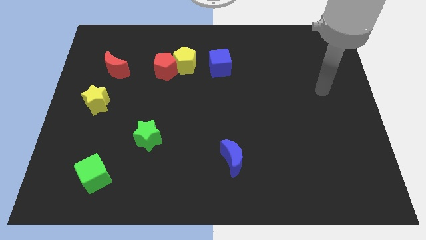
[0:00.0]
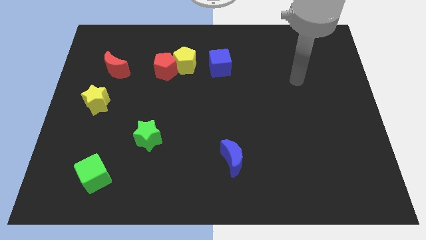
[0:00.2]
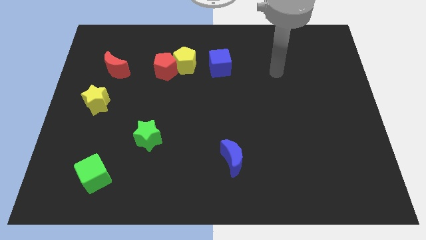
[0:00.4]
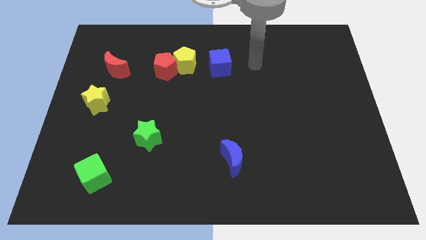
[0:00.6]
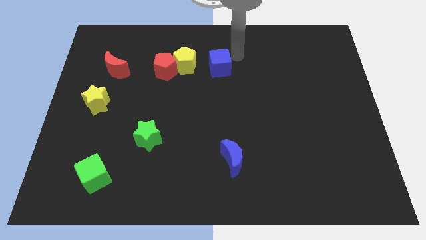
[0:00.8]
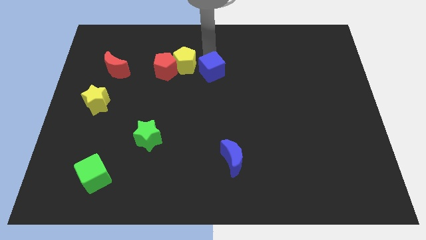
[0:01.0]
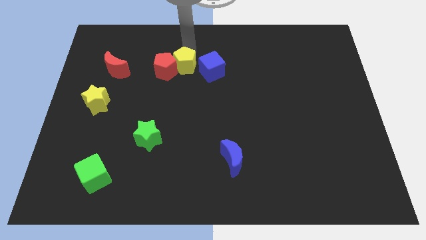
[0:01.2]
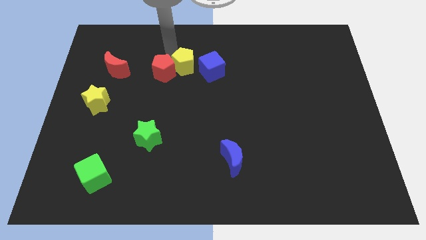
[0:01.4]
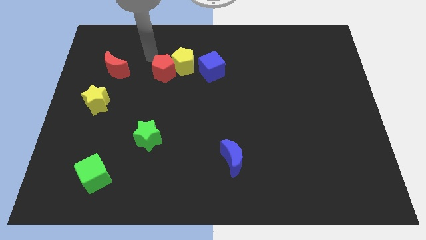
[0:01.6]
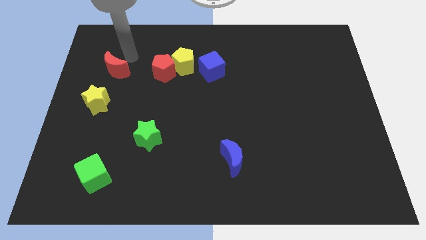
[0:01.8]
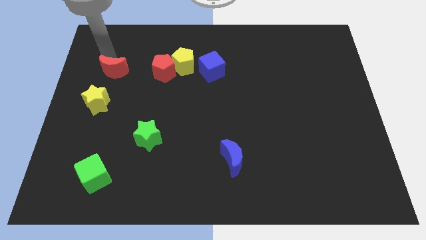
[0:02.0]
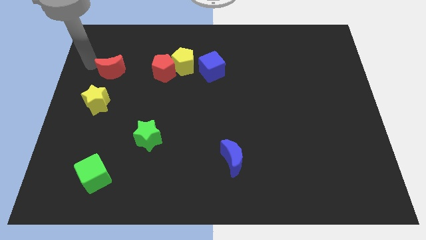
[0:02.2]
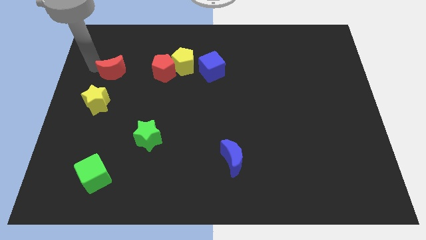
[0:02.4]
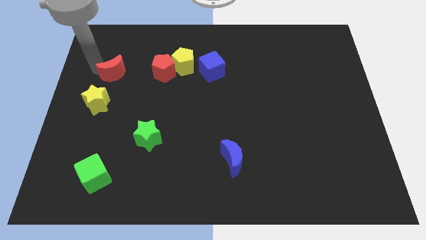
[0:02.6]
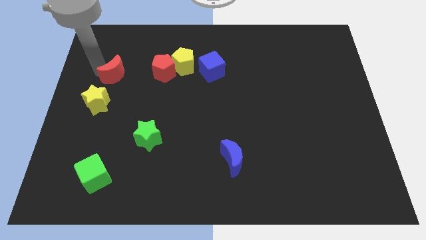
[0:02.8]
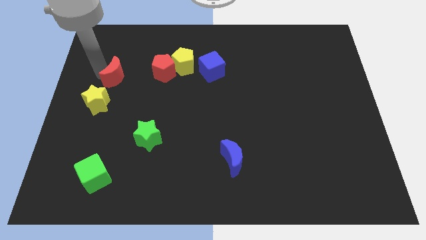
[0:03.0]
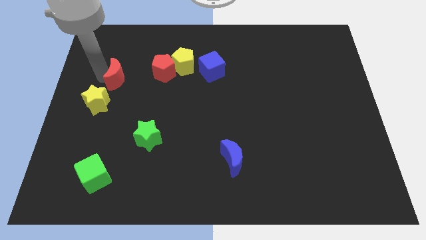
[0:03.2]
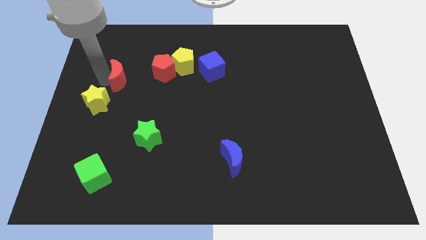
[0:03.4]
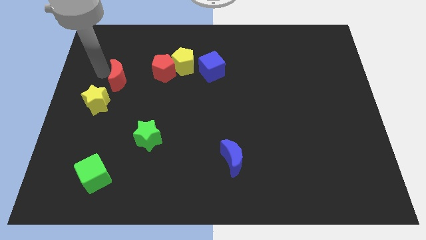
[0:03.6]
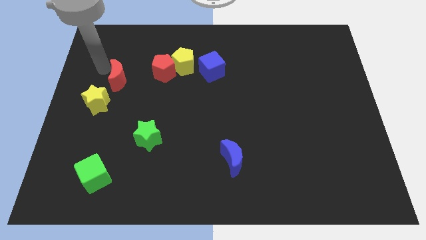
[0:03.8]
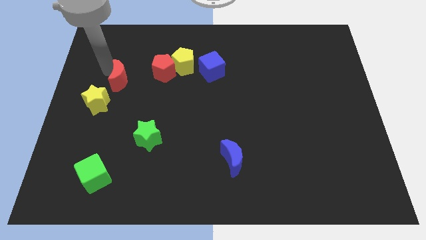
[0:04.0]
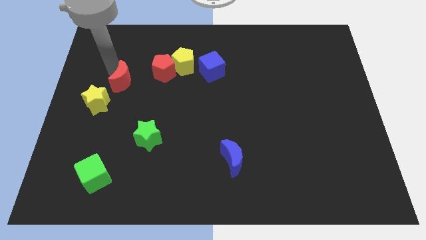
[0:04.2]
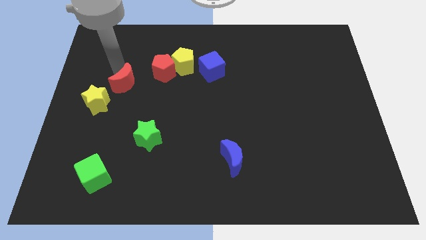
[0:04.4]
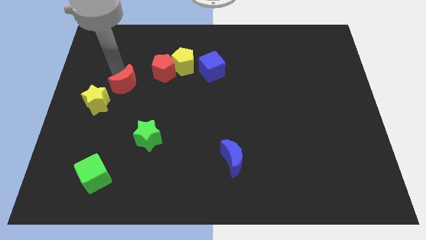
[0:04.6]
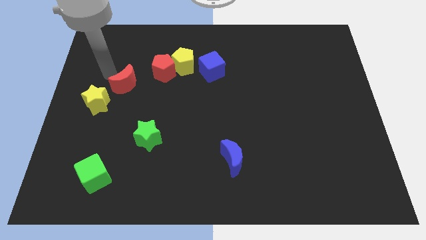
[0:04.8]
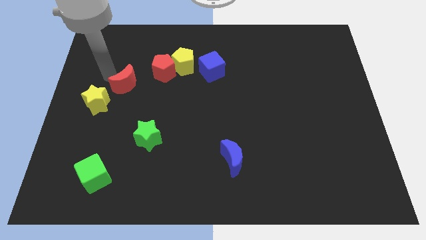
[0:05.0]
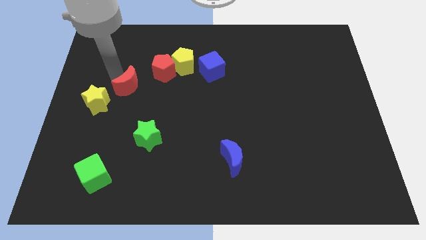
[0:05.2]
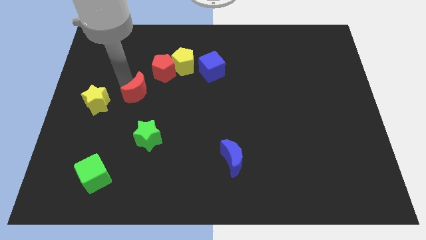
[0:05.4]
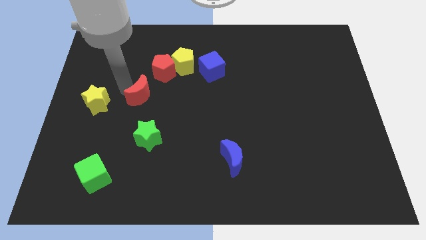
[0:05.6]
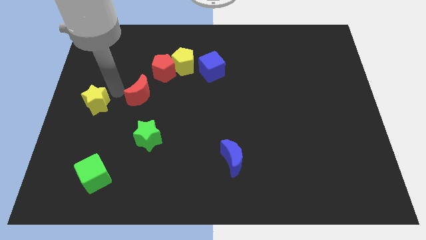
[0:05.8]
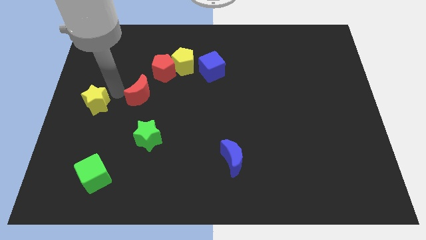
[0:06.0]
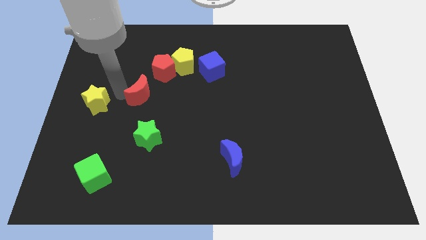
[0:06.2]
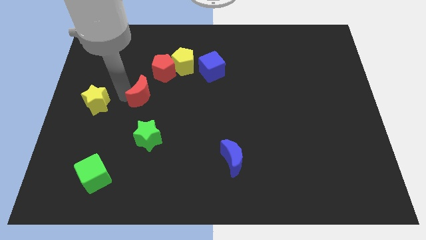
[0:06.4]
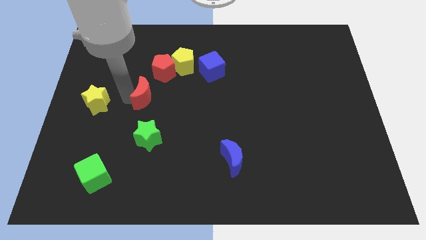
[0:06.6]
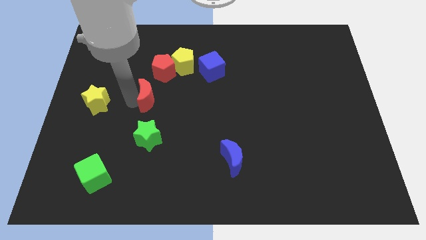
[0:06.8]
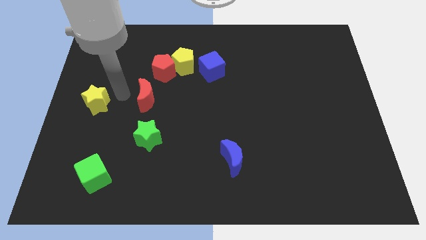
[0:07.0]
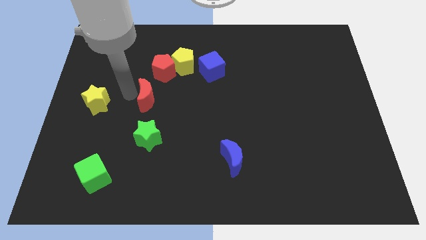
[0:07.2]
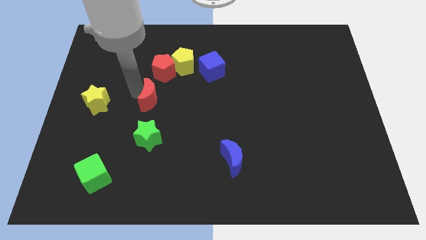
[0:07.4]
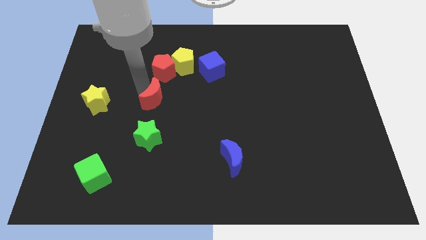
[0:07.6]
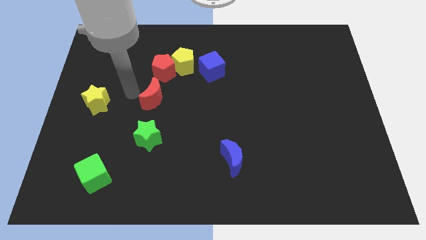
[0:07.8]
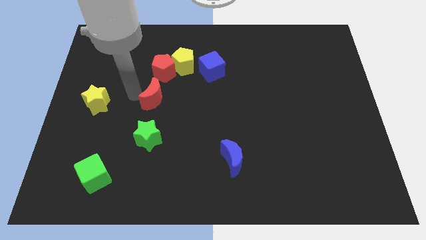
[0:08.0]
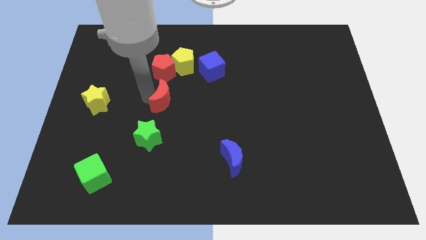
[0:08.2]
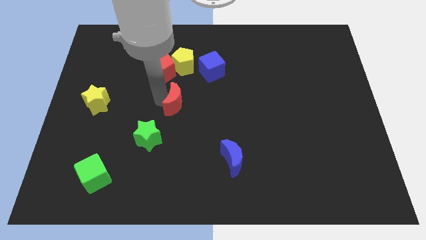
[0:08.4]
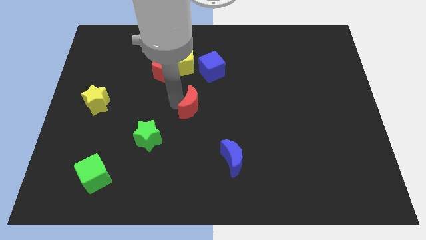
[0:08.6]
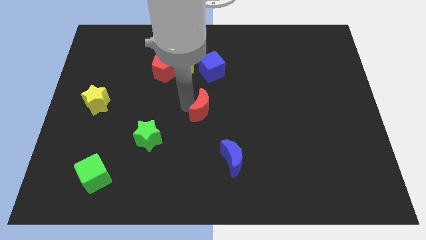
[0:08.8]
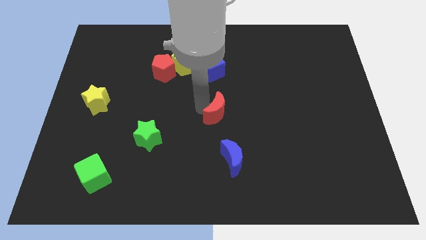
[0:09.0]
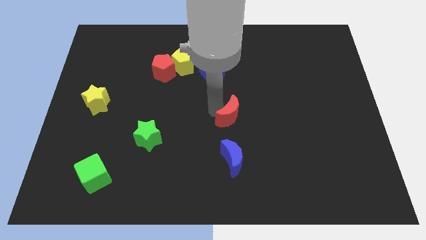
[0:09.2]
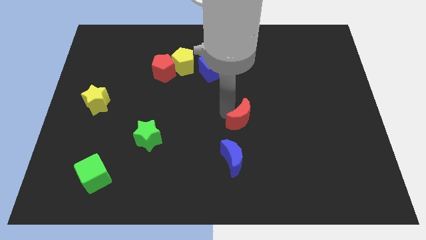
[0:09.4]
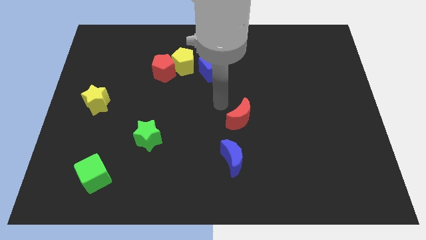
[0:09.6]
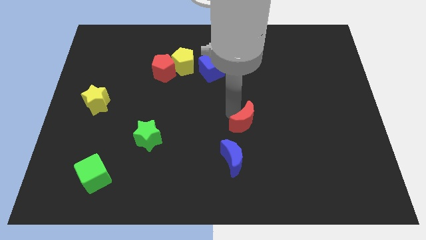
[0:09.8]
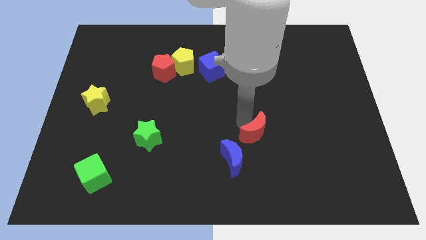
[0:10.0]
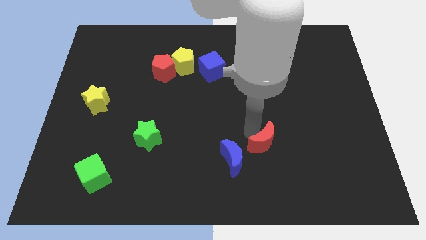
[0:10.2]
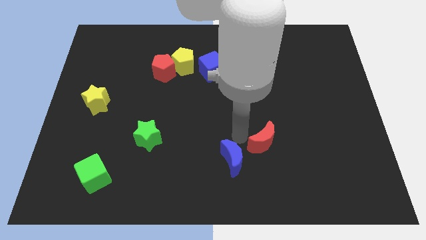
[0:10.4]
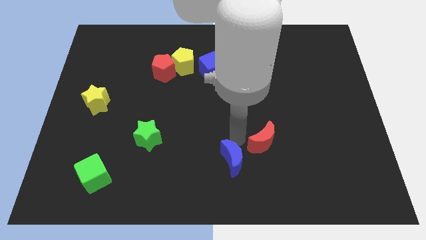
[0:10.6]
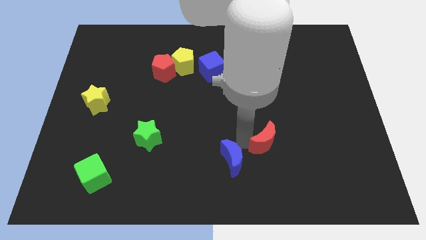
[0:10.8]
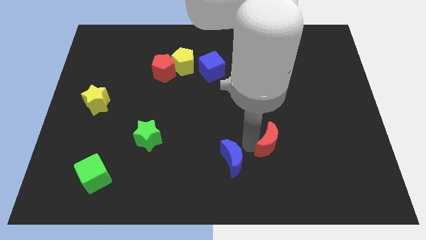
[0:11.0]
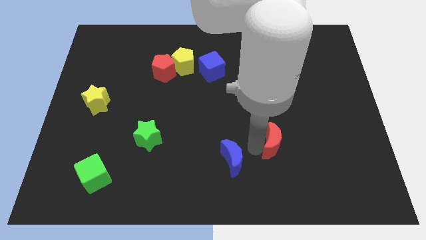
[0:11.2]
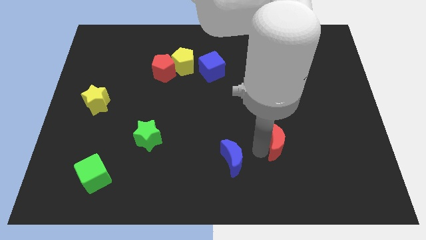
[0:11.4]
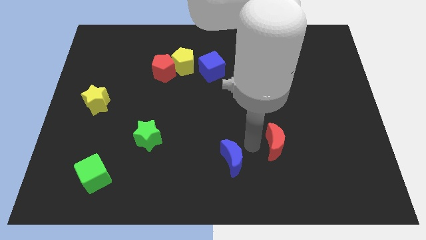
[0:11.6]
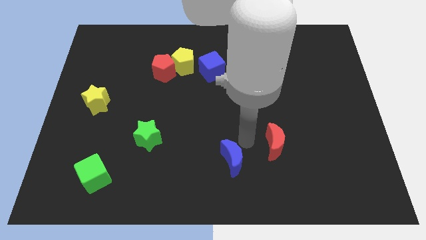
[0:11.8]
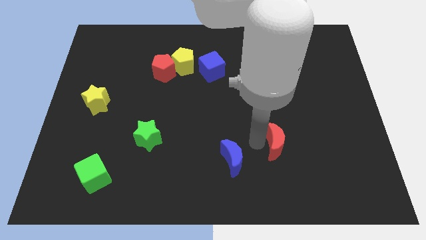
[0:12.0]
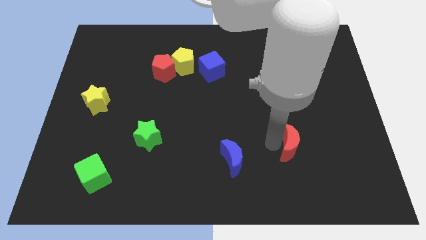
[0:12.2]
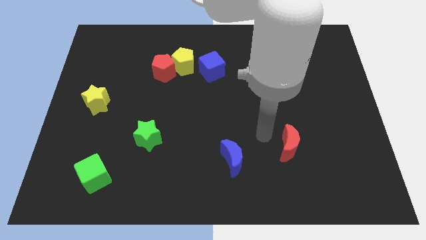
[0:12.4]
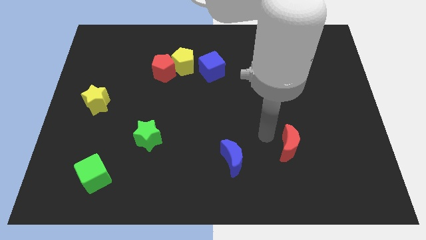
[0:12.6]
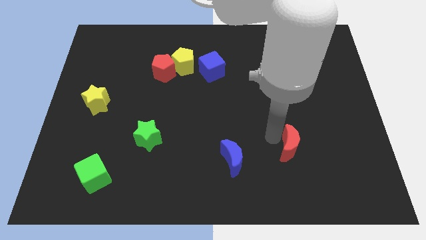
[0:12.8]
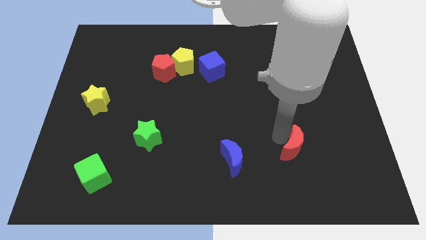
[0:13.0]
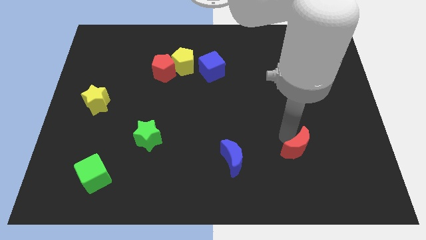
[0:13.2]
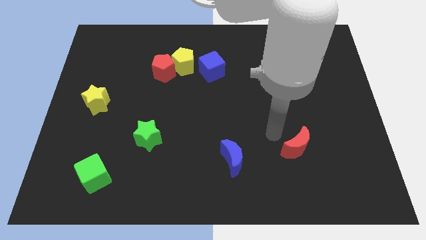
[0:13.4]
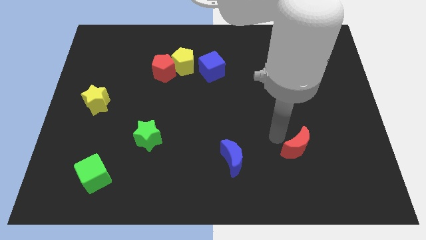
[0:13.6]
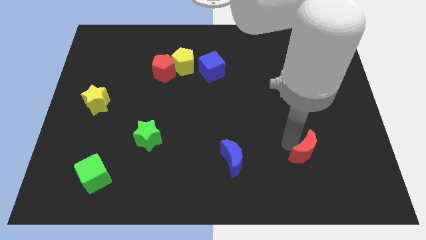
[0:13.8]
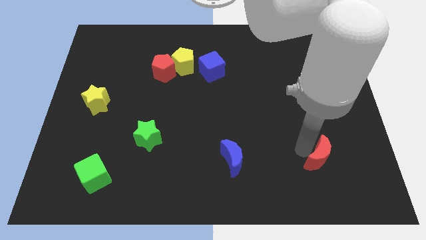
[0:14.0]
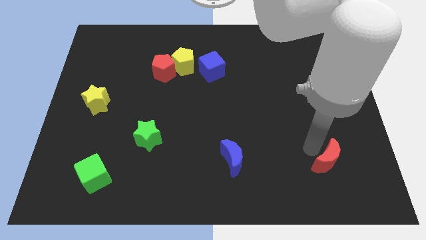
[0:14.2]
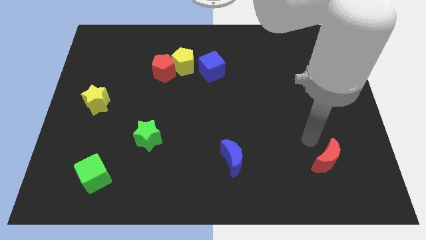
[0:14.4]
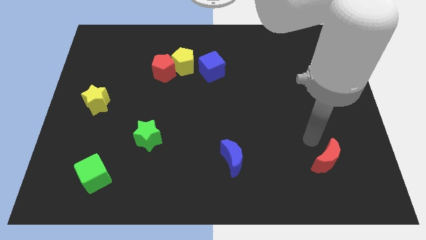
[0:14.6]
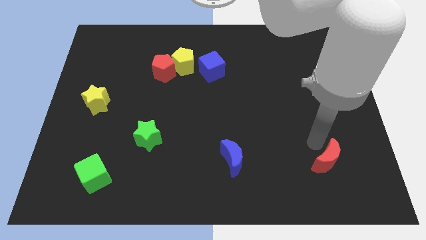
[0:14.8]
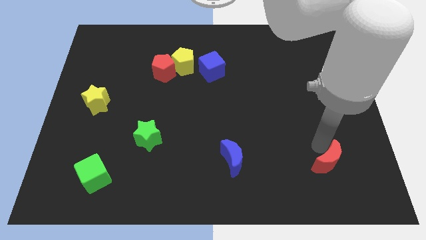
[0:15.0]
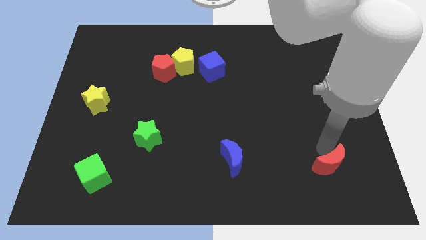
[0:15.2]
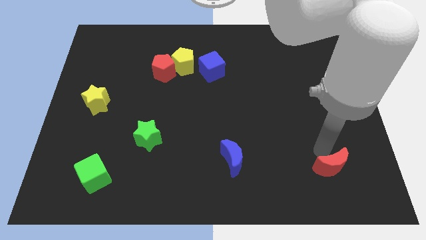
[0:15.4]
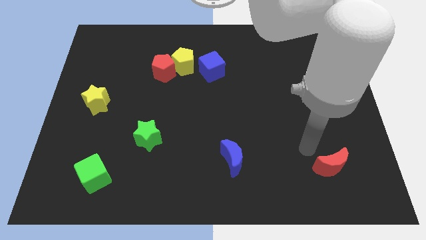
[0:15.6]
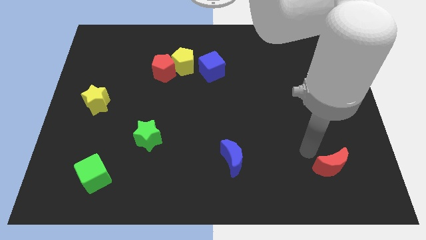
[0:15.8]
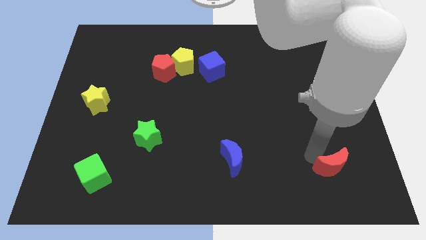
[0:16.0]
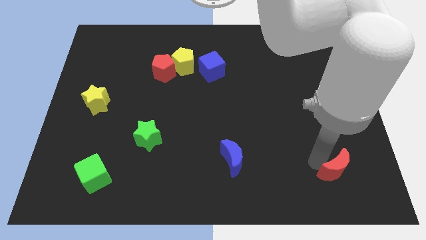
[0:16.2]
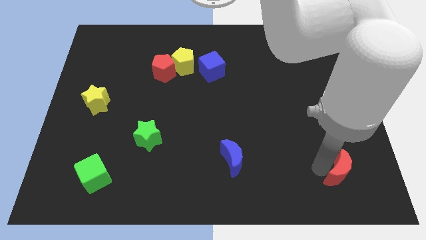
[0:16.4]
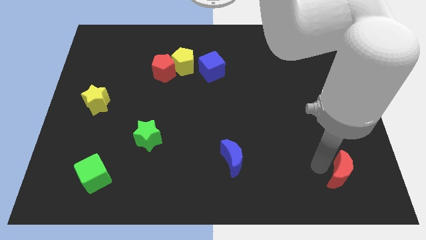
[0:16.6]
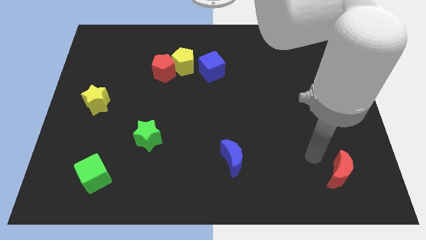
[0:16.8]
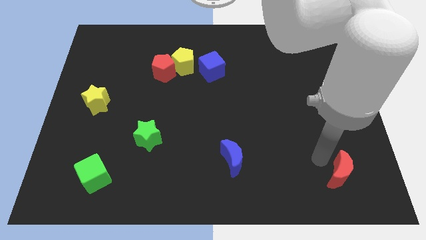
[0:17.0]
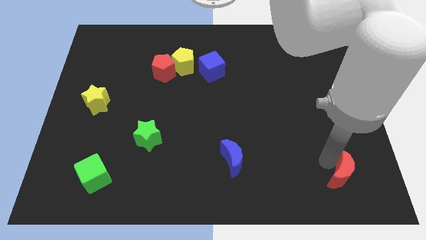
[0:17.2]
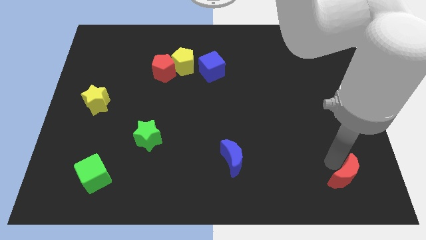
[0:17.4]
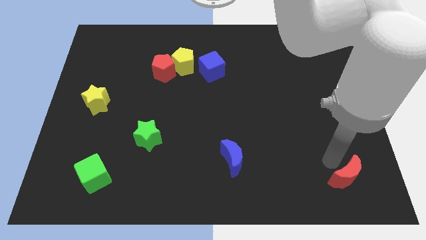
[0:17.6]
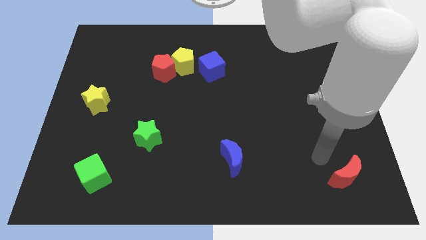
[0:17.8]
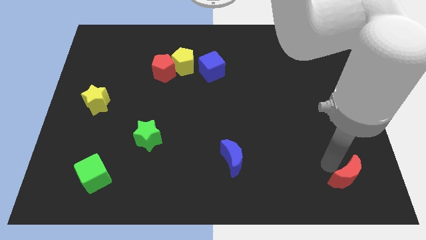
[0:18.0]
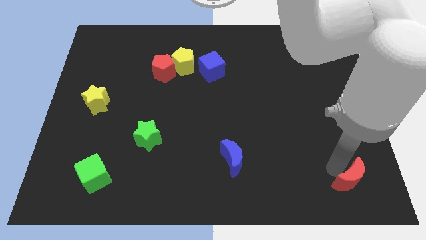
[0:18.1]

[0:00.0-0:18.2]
put the red moon to the lower right corner
